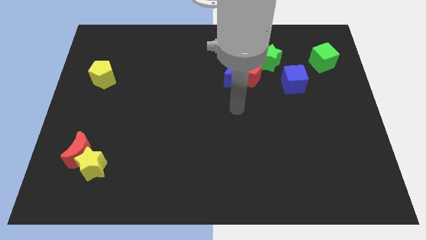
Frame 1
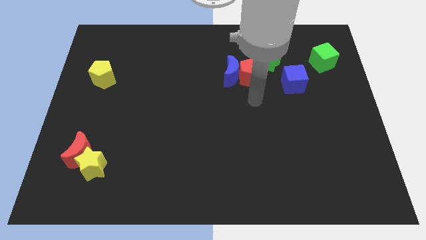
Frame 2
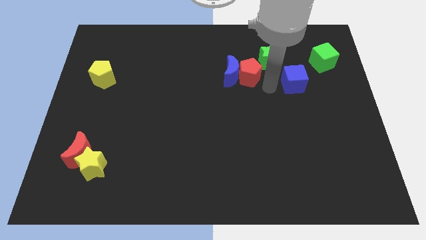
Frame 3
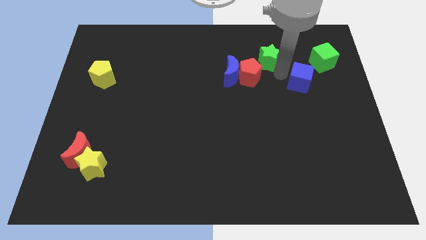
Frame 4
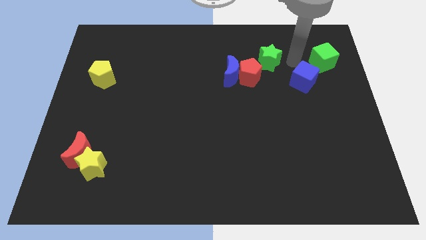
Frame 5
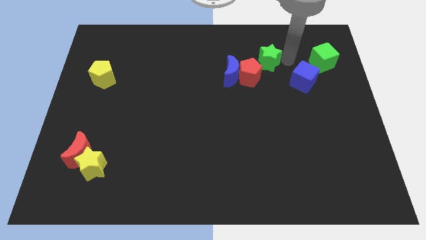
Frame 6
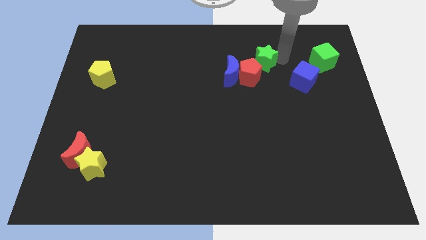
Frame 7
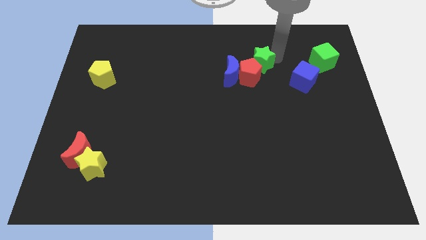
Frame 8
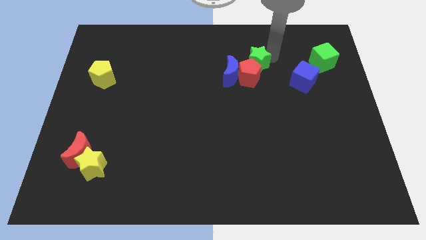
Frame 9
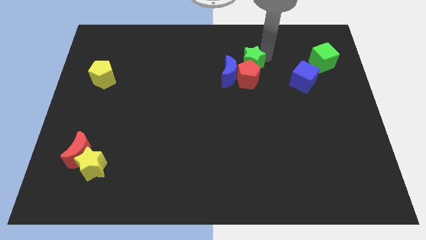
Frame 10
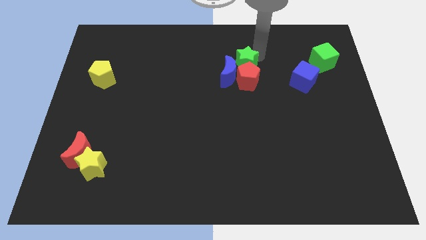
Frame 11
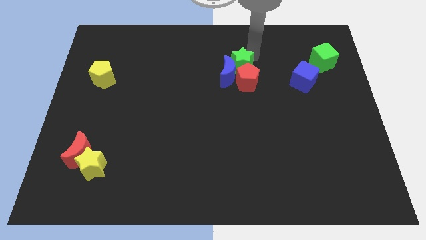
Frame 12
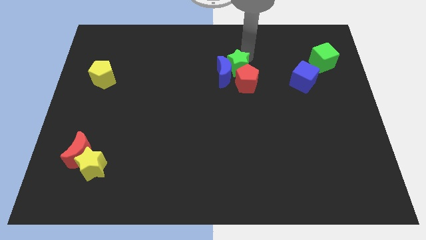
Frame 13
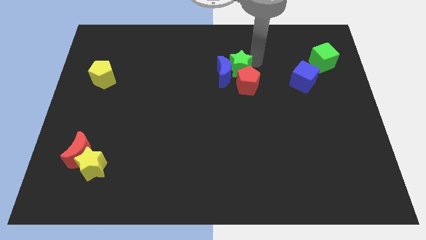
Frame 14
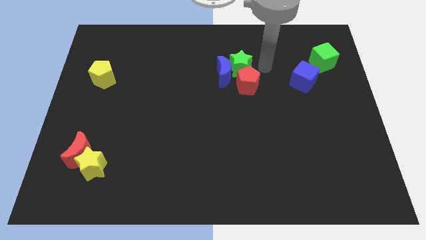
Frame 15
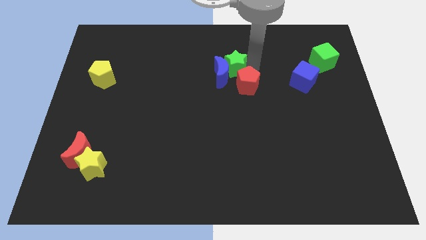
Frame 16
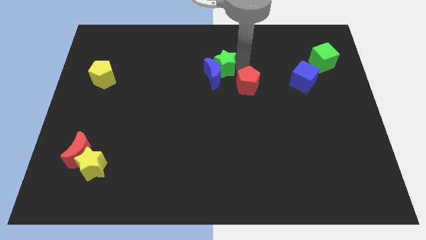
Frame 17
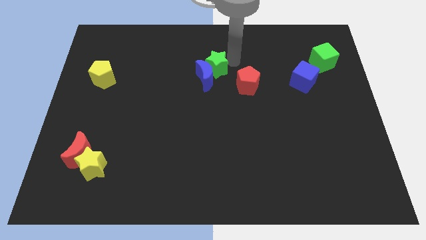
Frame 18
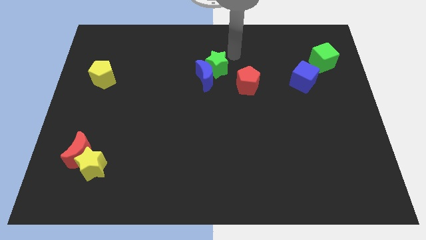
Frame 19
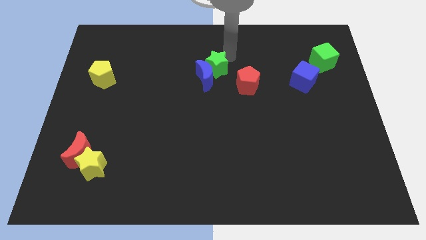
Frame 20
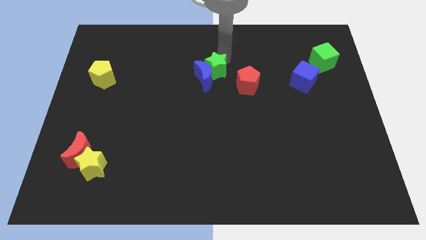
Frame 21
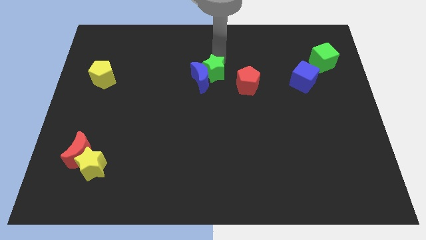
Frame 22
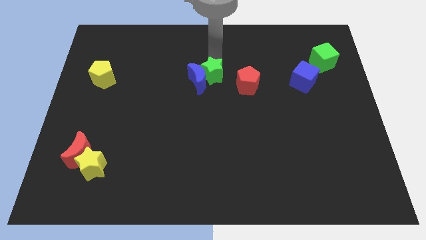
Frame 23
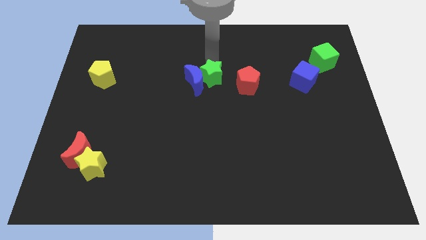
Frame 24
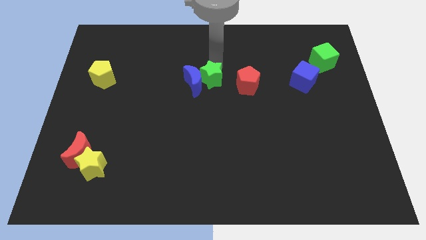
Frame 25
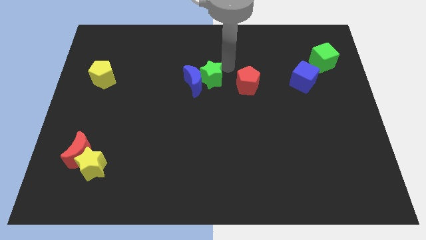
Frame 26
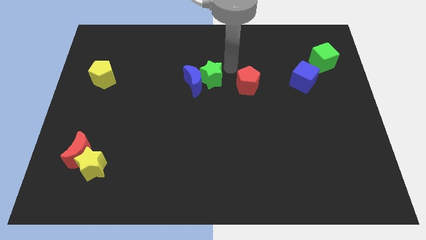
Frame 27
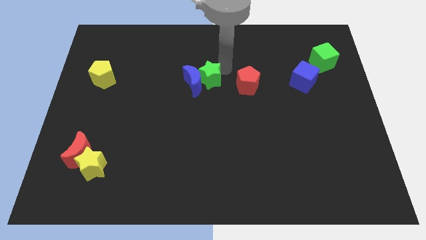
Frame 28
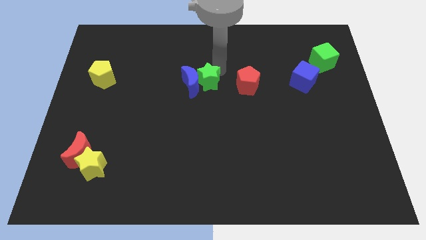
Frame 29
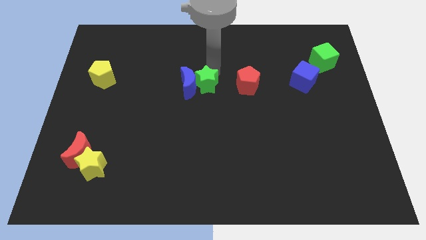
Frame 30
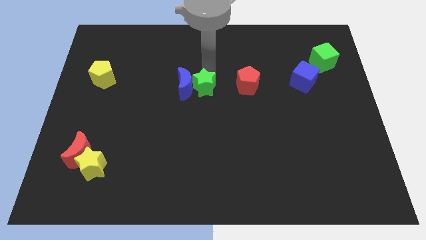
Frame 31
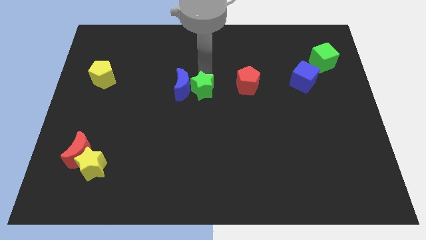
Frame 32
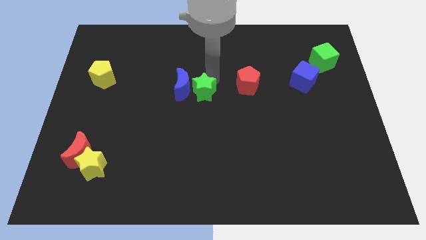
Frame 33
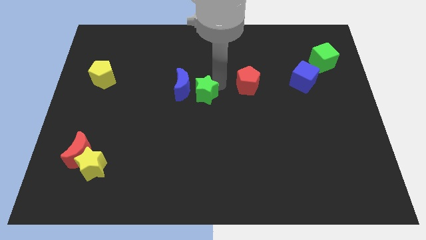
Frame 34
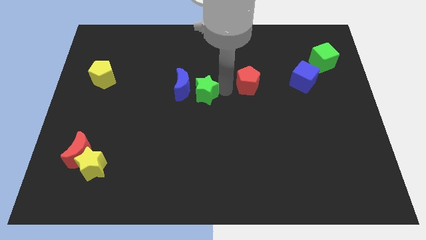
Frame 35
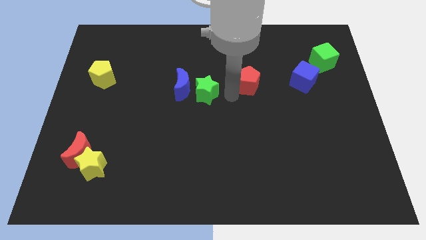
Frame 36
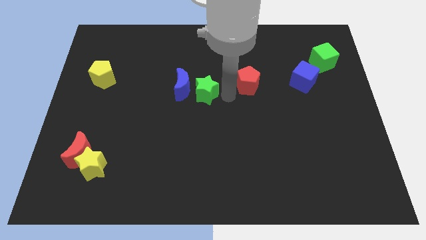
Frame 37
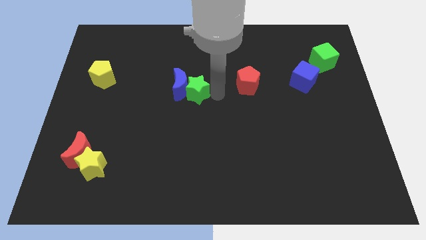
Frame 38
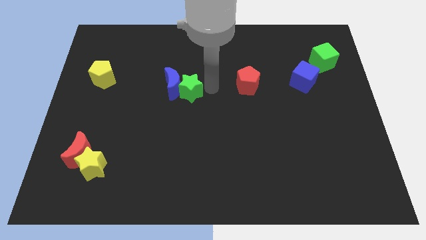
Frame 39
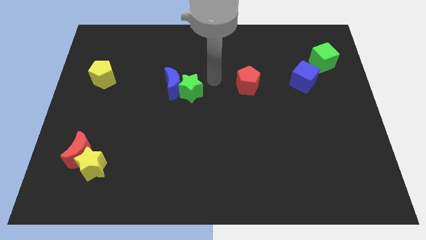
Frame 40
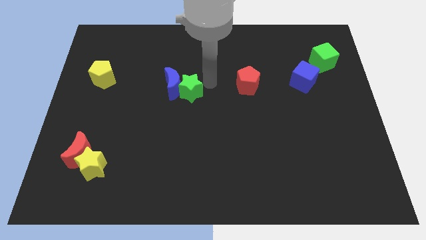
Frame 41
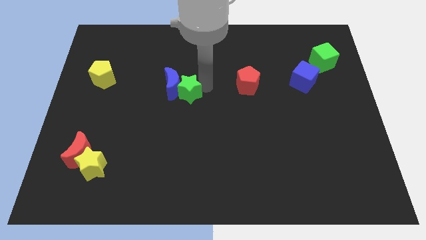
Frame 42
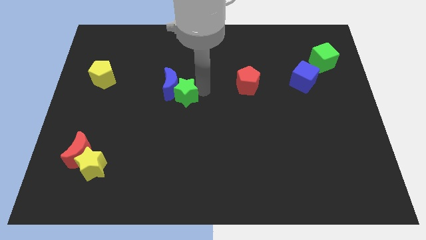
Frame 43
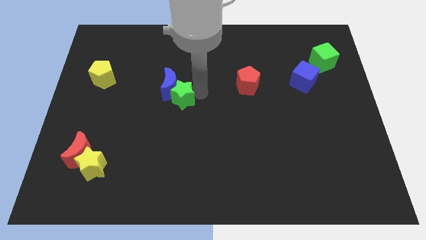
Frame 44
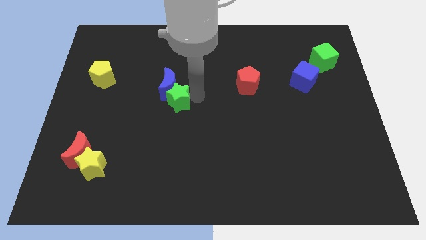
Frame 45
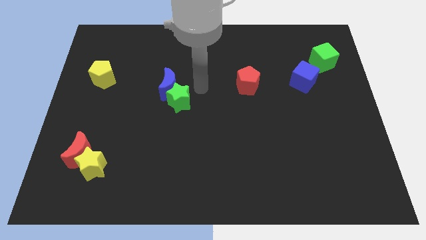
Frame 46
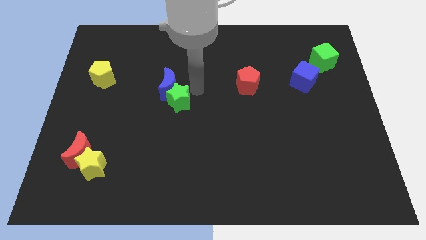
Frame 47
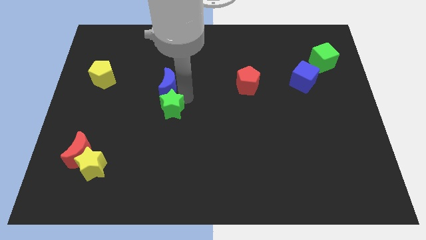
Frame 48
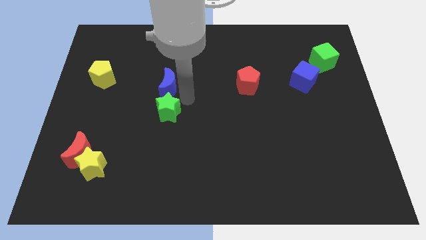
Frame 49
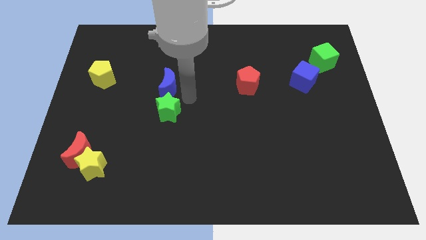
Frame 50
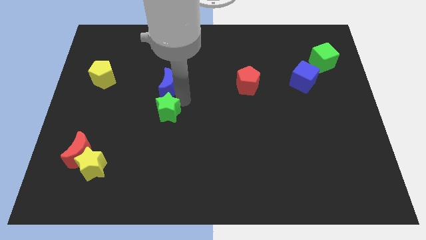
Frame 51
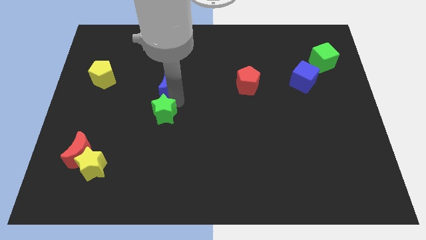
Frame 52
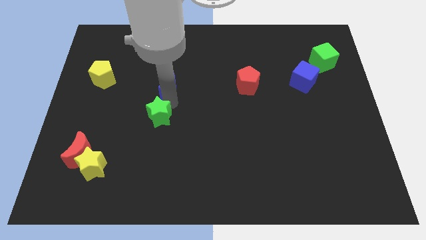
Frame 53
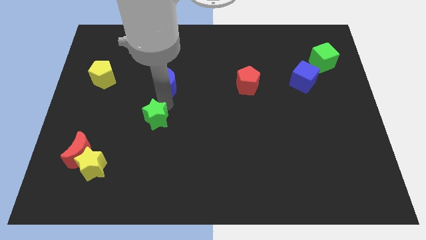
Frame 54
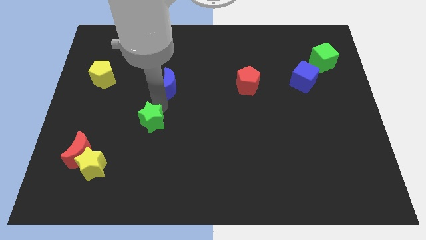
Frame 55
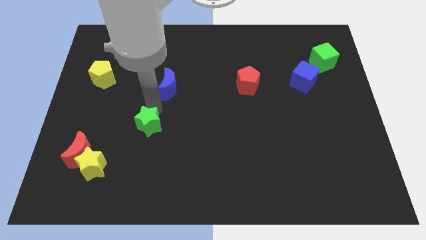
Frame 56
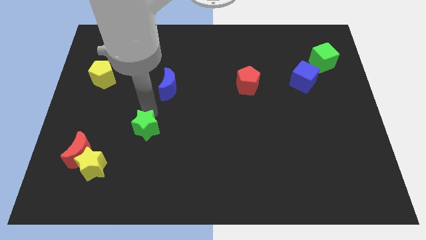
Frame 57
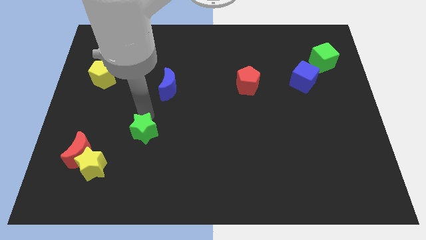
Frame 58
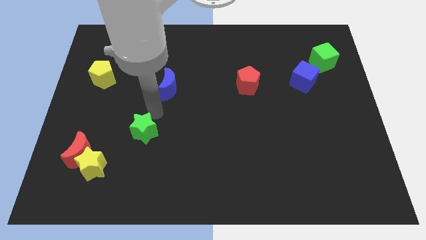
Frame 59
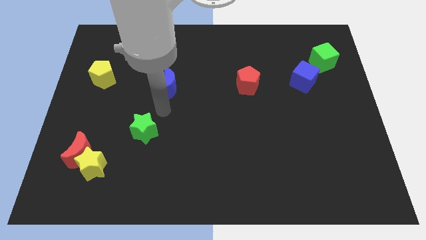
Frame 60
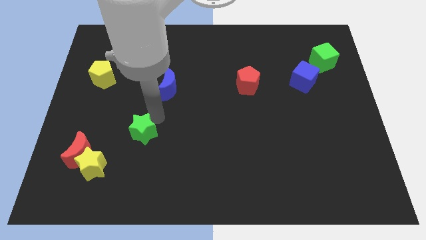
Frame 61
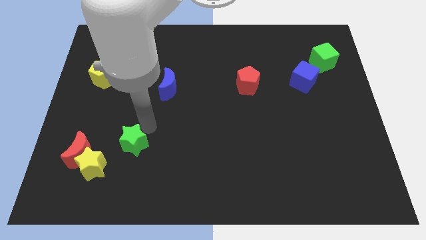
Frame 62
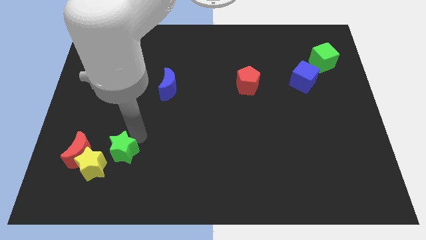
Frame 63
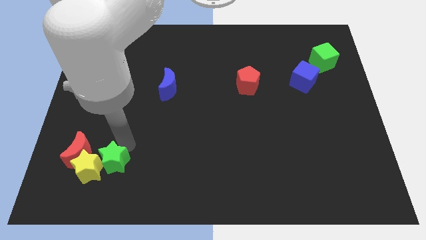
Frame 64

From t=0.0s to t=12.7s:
move the green star diagonally down and to the right of the red moon
